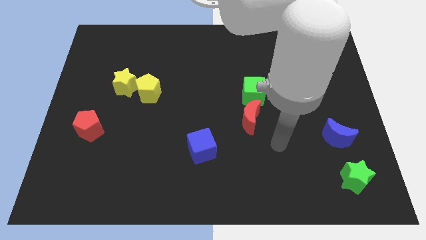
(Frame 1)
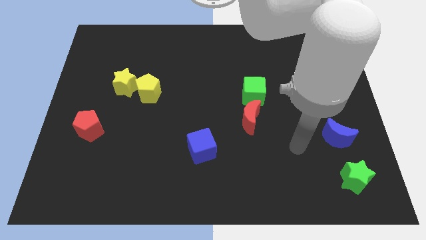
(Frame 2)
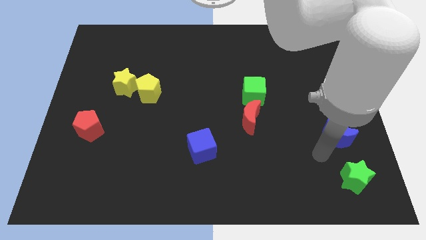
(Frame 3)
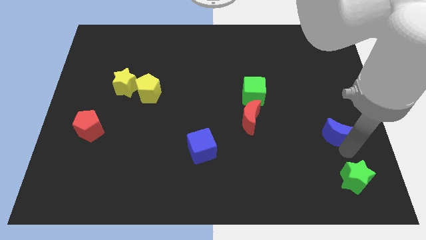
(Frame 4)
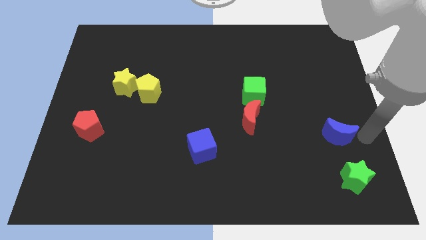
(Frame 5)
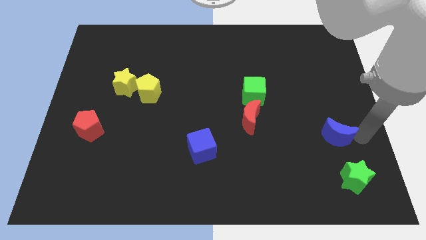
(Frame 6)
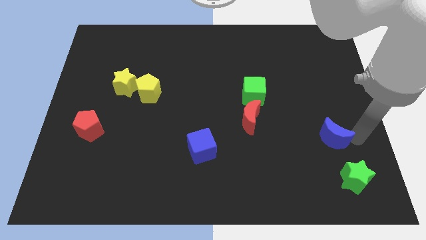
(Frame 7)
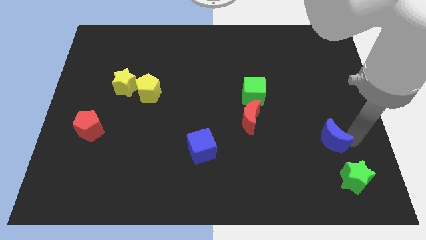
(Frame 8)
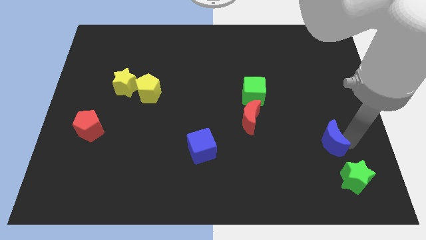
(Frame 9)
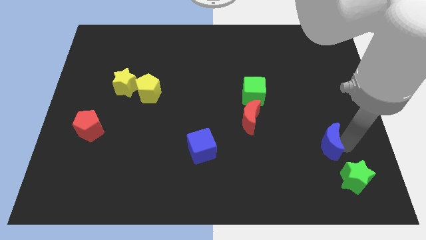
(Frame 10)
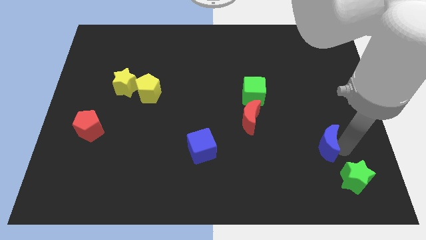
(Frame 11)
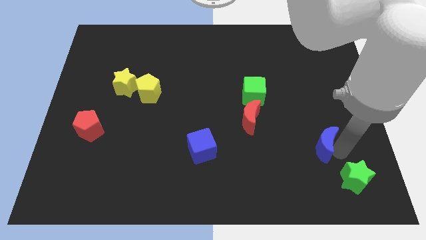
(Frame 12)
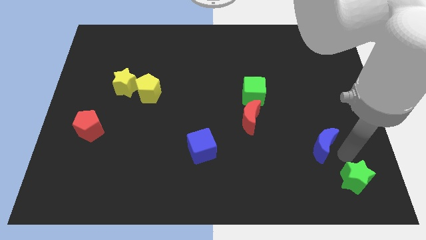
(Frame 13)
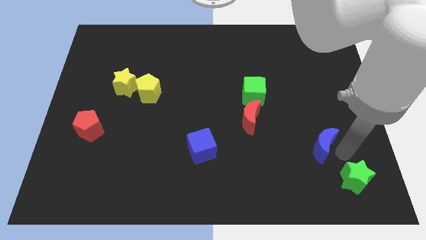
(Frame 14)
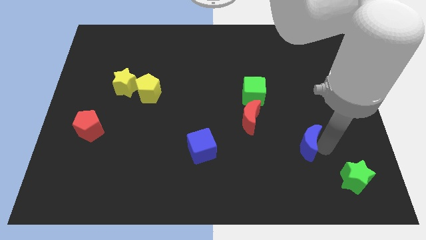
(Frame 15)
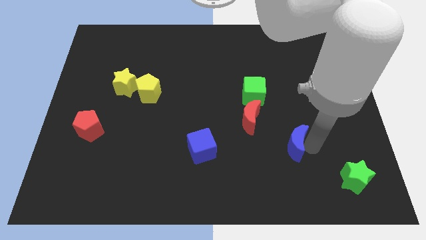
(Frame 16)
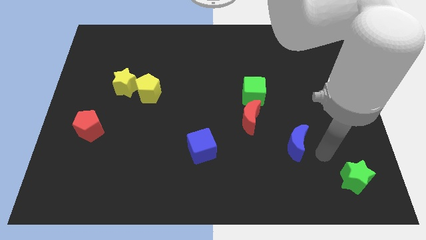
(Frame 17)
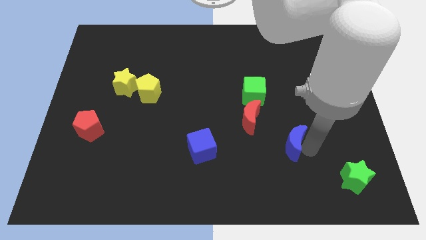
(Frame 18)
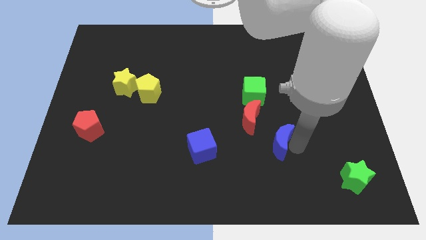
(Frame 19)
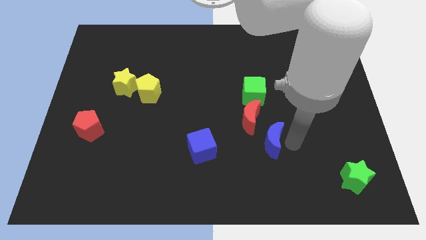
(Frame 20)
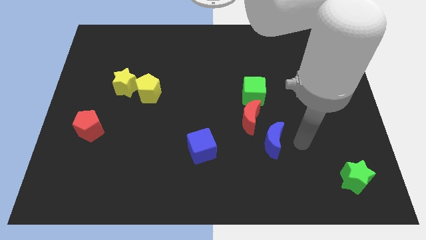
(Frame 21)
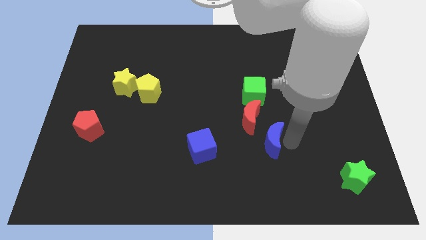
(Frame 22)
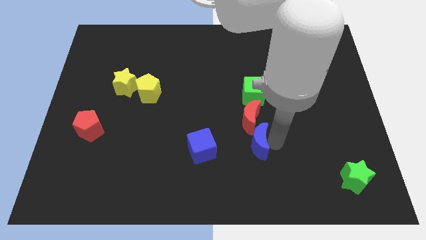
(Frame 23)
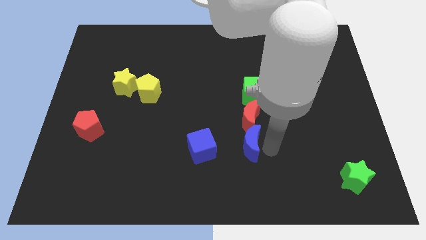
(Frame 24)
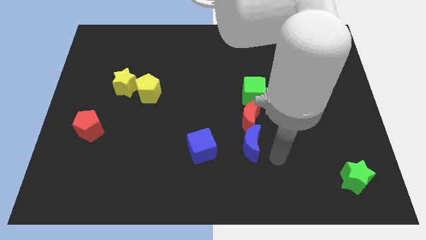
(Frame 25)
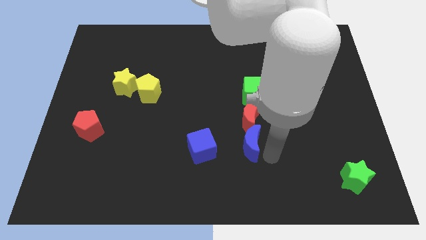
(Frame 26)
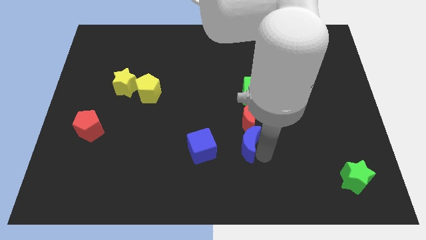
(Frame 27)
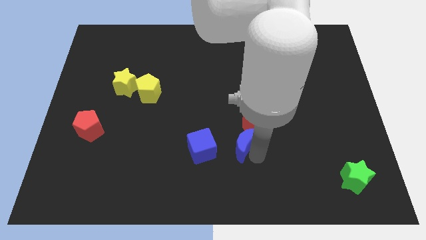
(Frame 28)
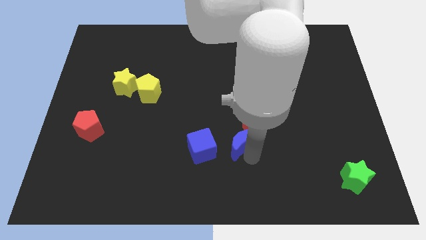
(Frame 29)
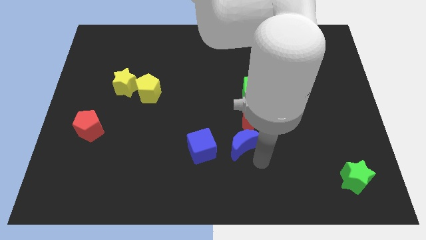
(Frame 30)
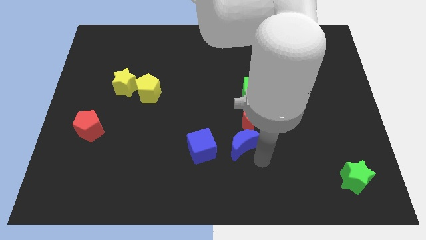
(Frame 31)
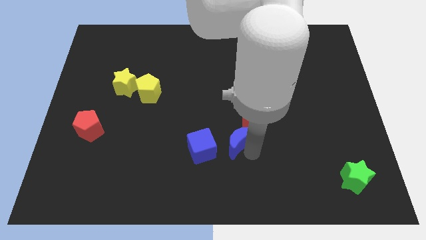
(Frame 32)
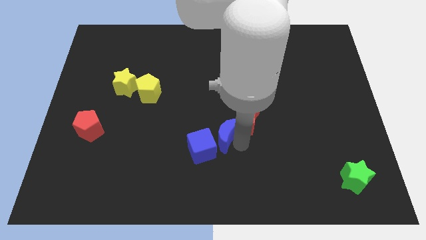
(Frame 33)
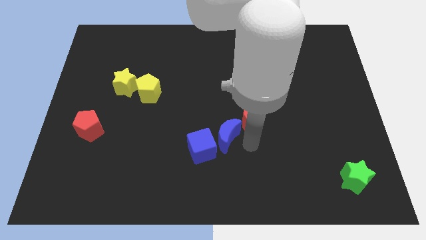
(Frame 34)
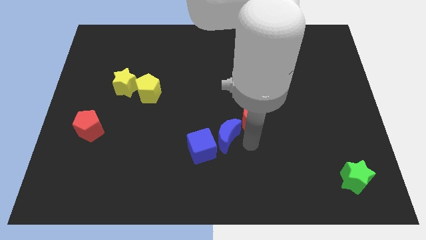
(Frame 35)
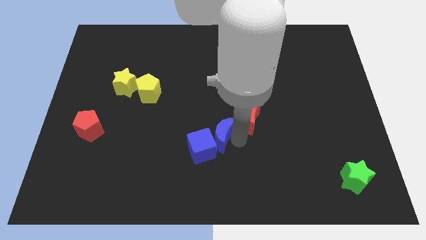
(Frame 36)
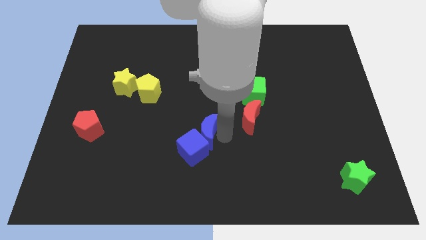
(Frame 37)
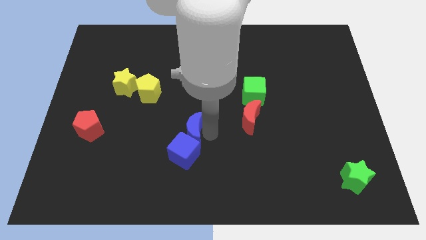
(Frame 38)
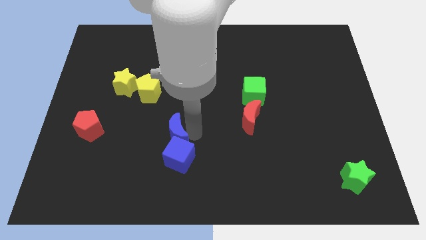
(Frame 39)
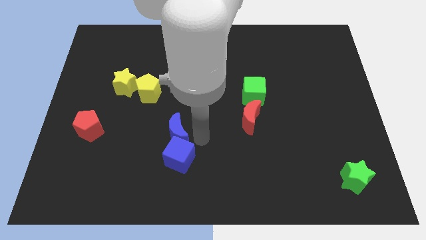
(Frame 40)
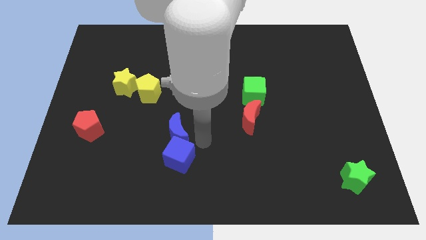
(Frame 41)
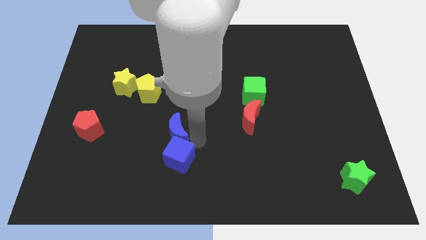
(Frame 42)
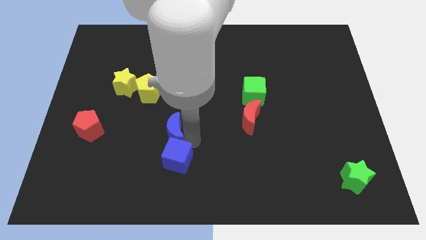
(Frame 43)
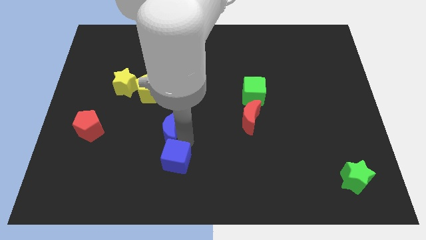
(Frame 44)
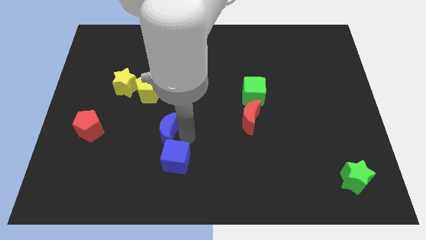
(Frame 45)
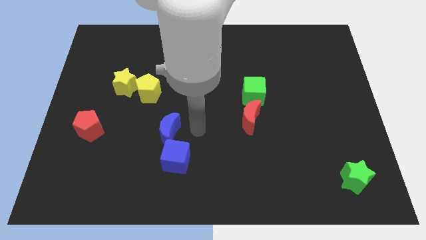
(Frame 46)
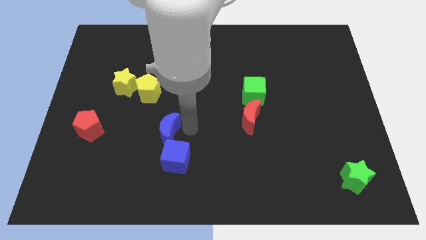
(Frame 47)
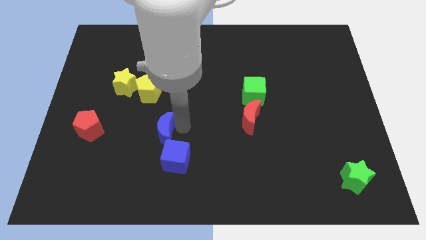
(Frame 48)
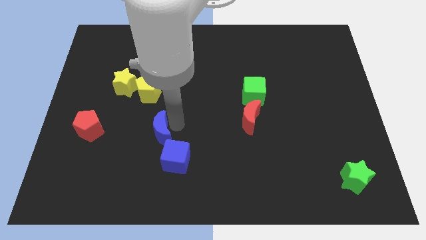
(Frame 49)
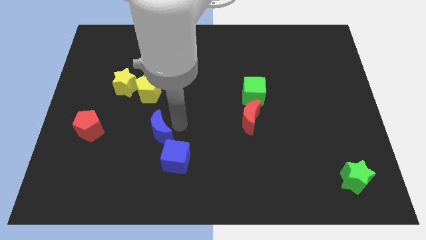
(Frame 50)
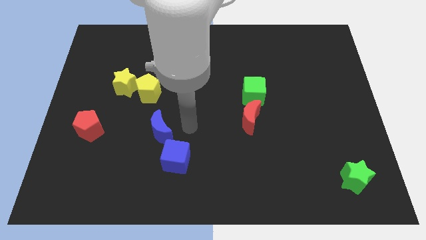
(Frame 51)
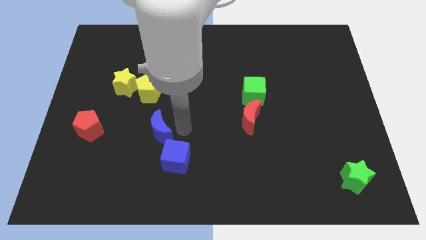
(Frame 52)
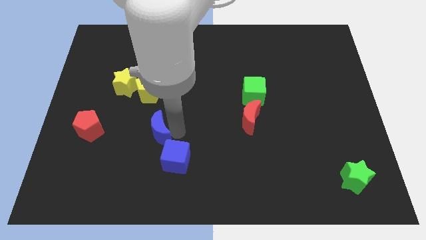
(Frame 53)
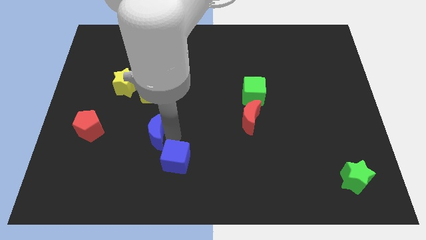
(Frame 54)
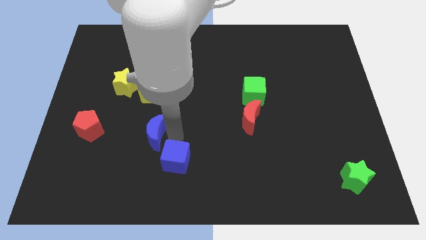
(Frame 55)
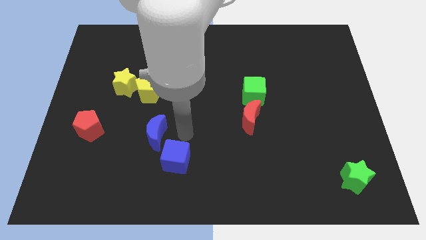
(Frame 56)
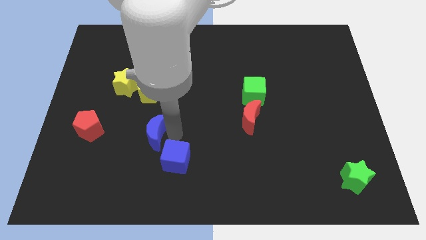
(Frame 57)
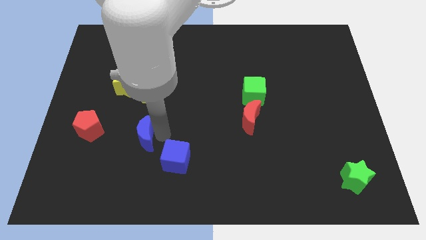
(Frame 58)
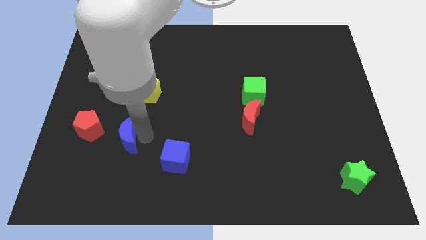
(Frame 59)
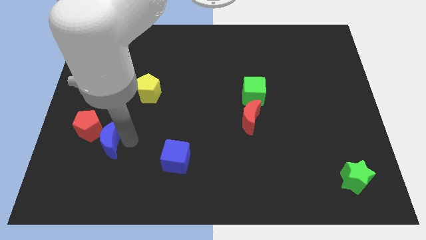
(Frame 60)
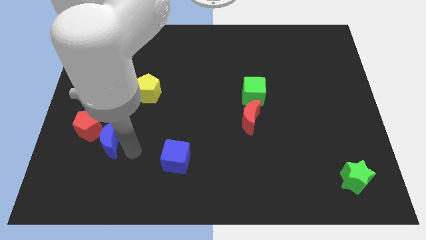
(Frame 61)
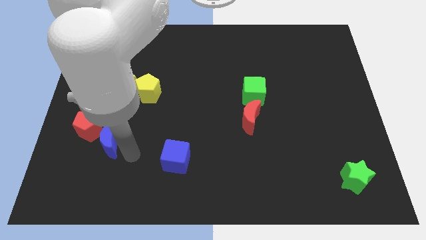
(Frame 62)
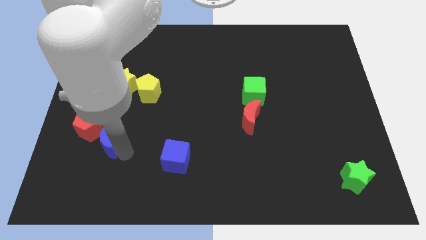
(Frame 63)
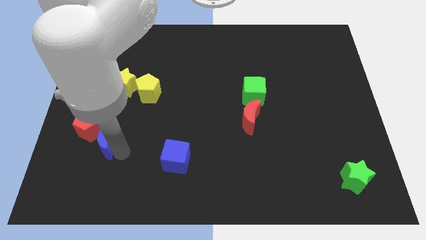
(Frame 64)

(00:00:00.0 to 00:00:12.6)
put the blue moon next to the red pentagon
